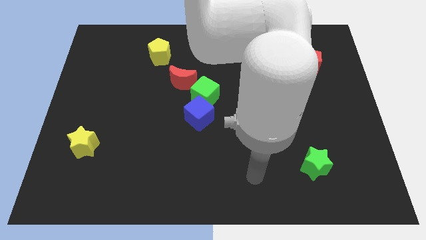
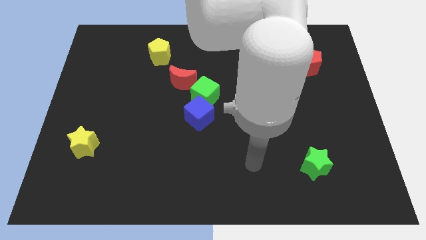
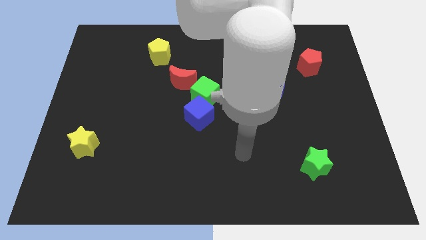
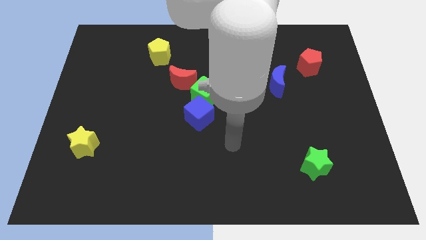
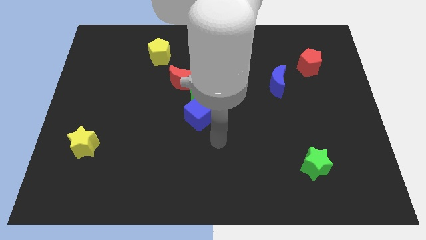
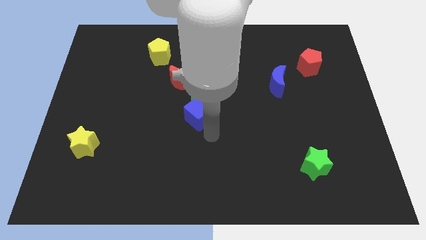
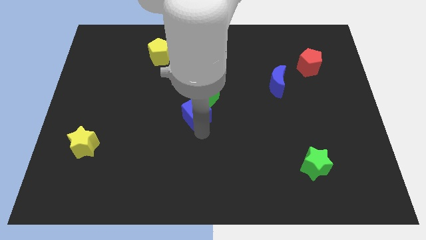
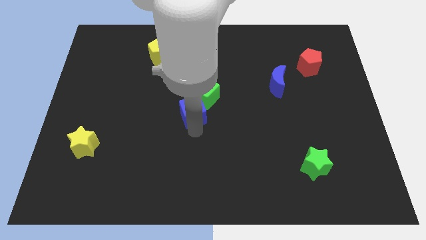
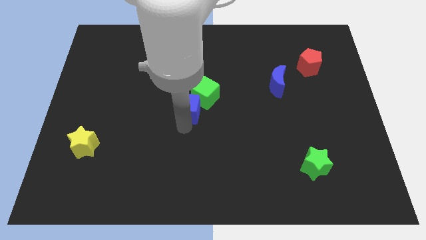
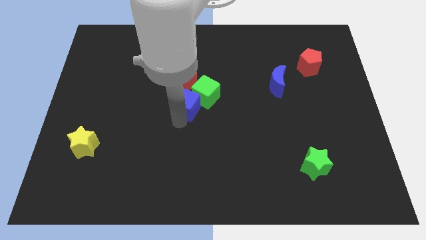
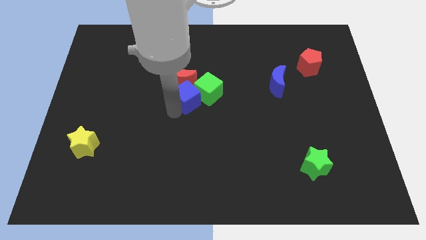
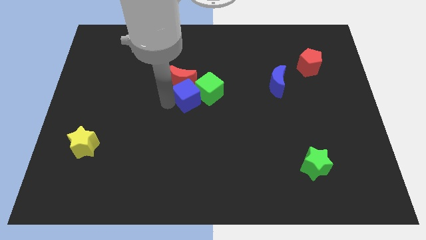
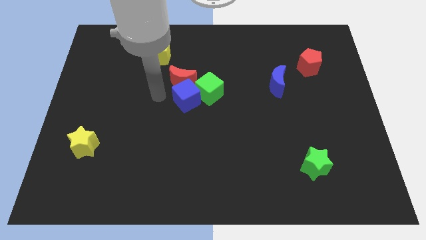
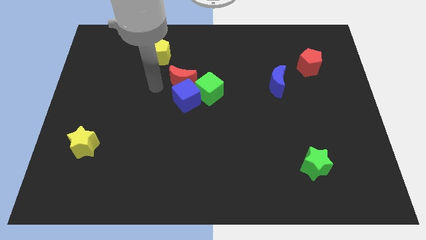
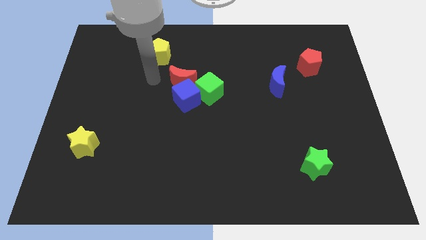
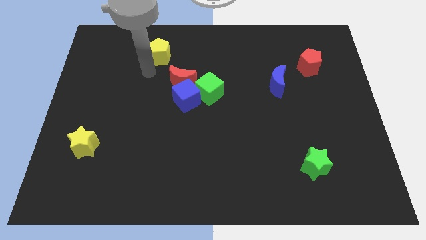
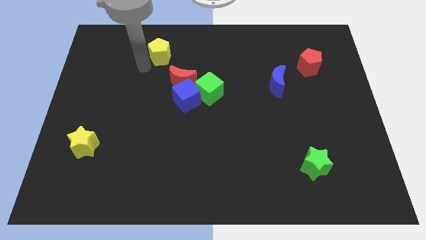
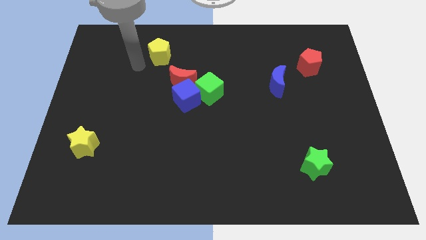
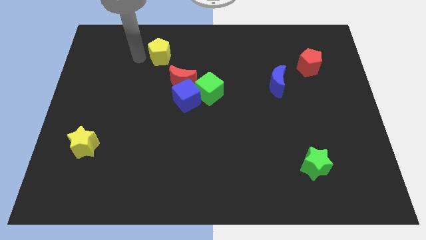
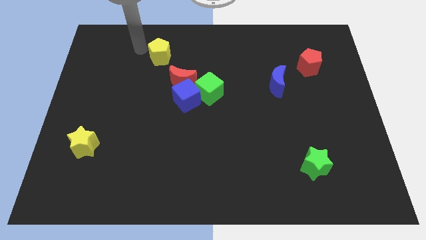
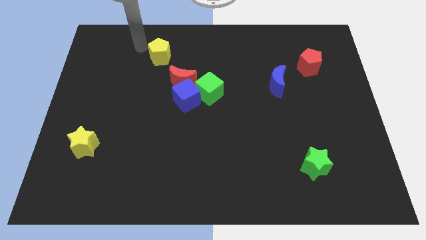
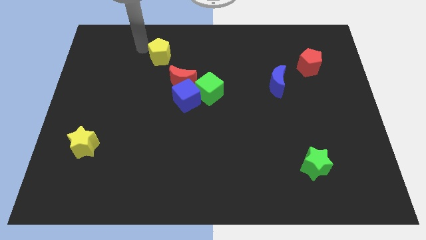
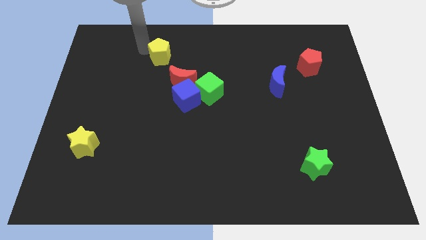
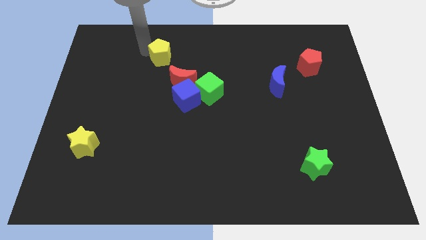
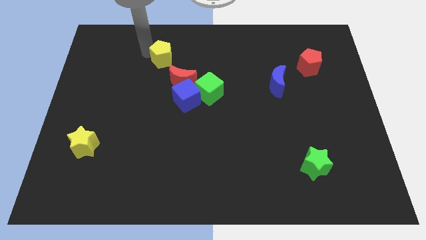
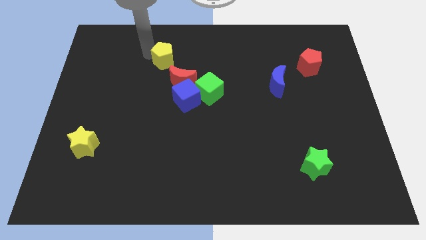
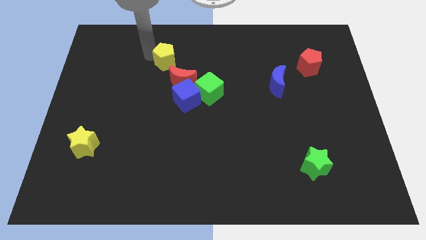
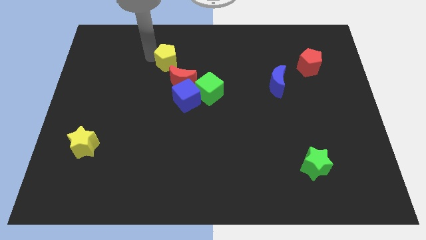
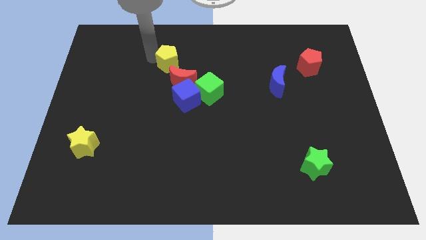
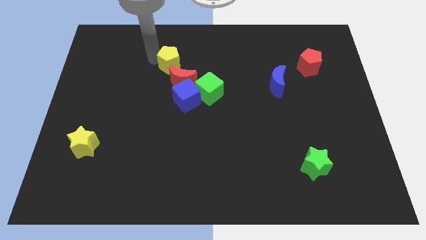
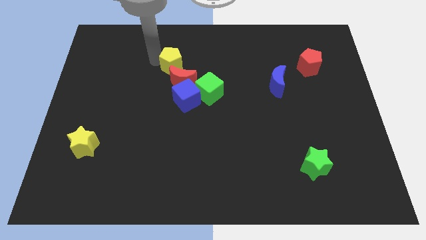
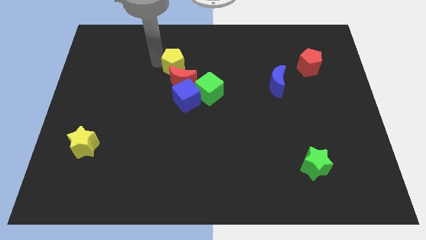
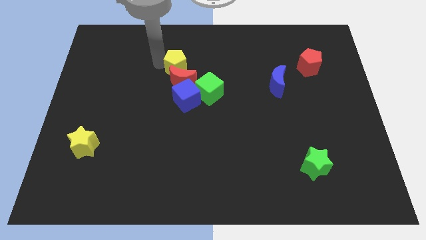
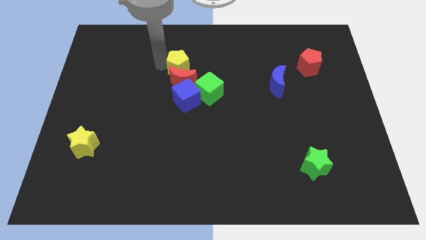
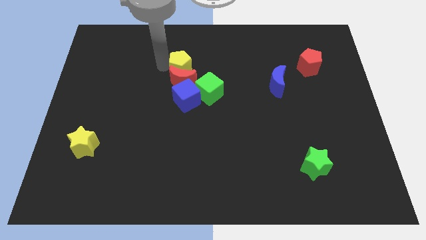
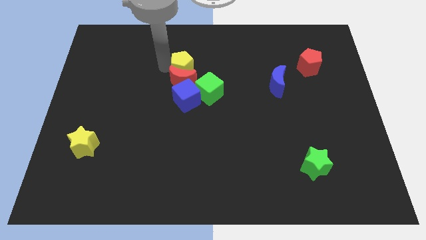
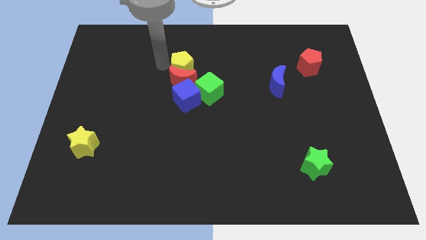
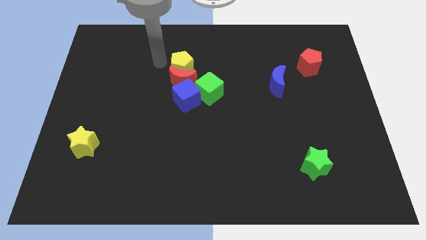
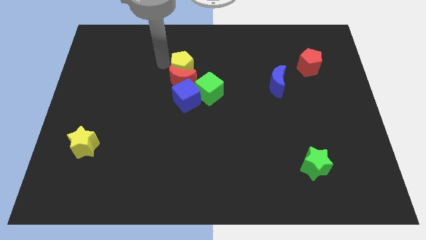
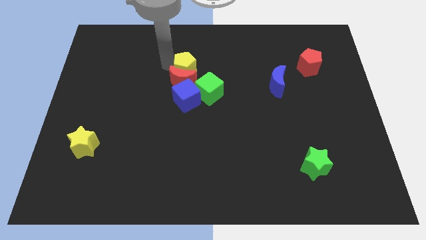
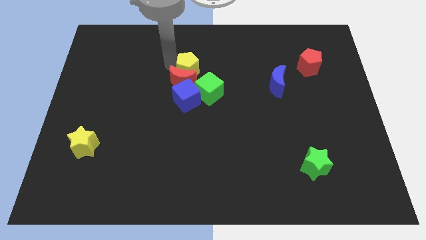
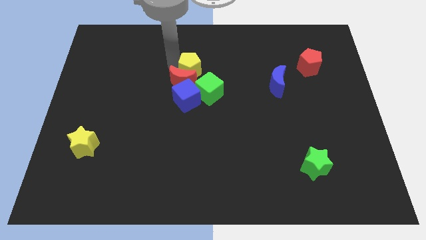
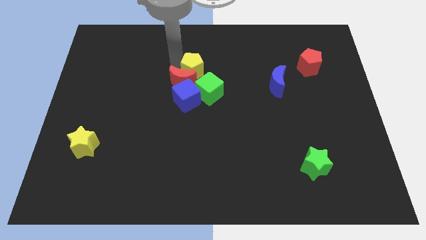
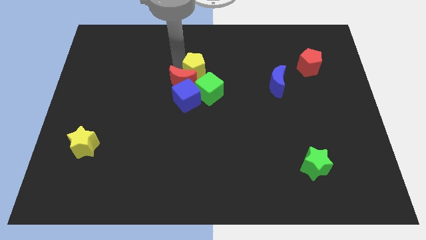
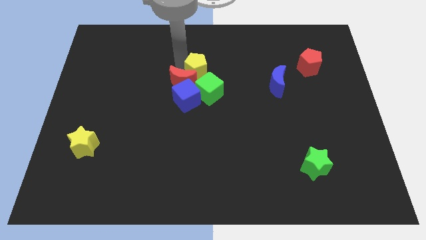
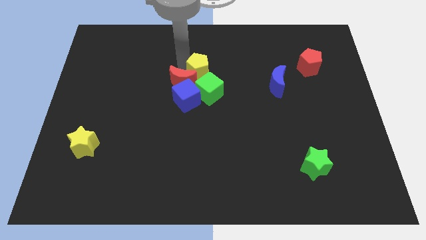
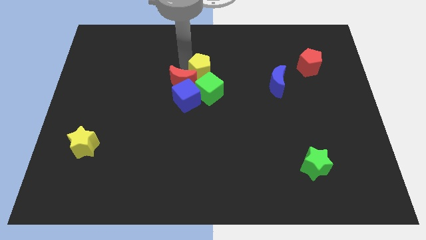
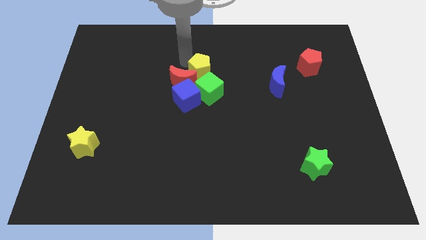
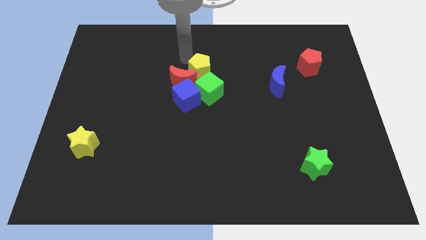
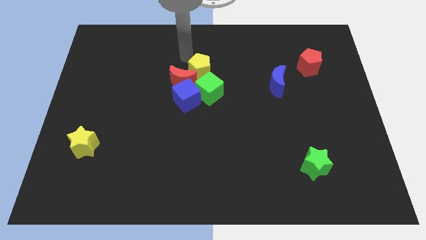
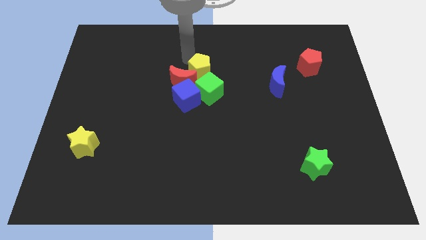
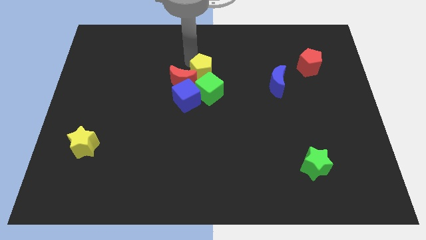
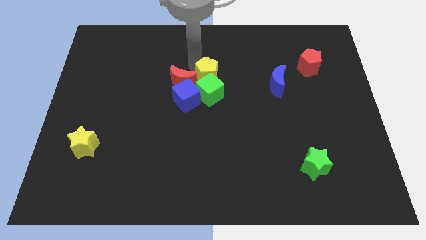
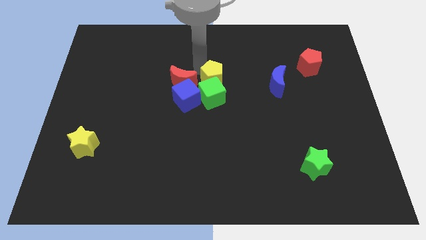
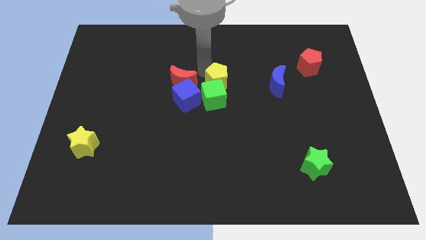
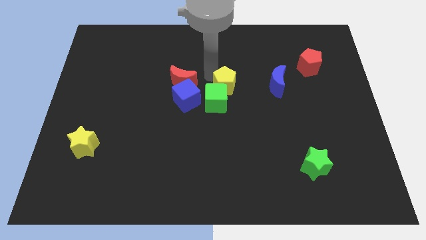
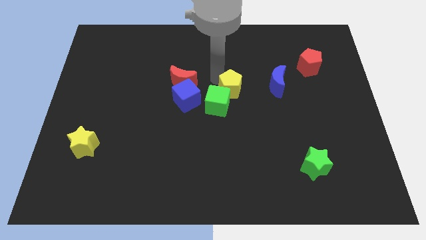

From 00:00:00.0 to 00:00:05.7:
slide the yellow pentagon downwards and right diagonally

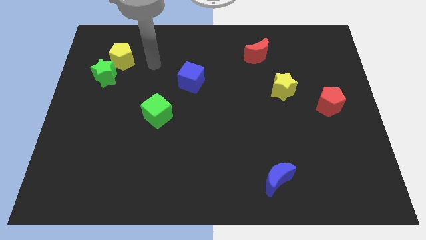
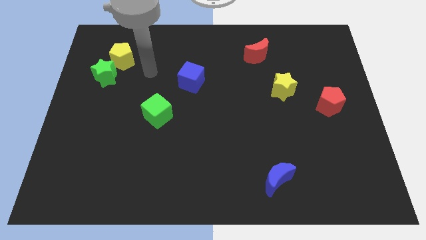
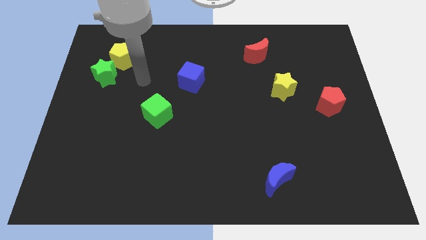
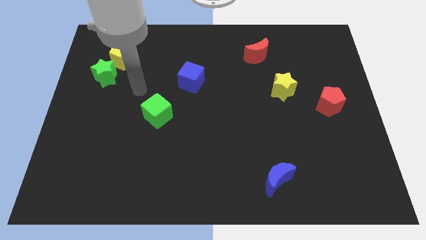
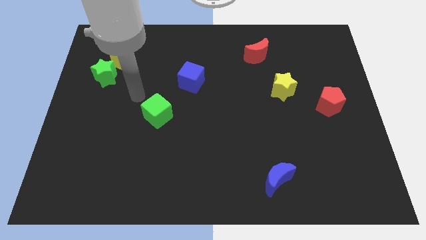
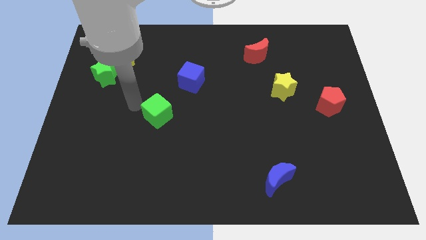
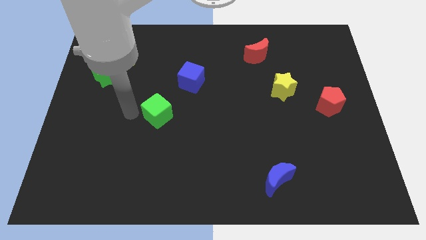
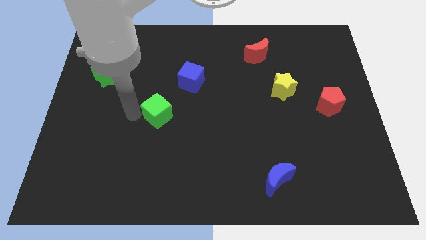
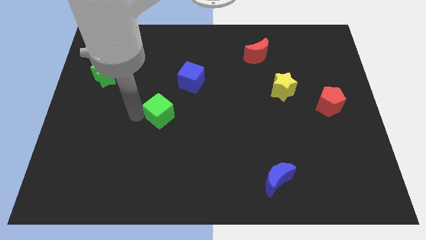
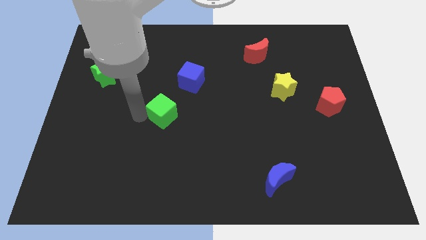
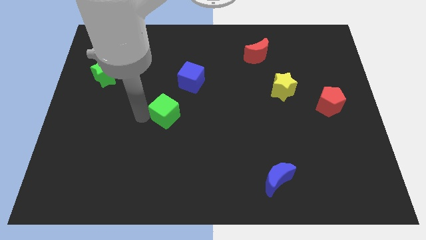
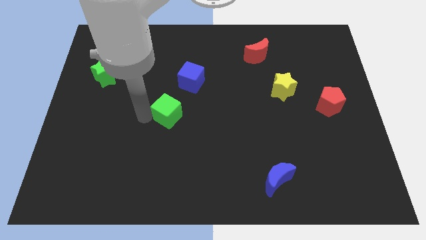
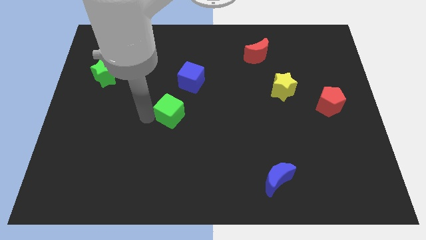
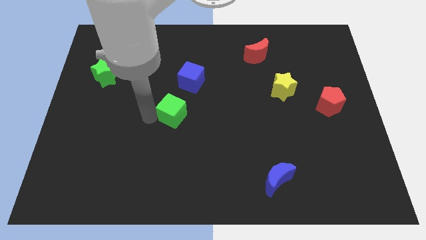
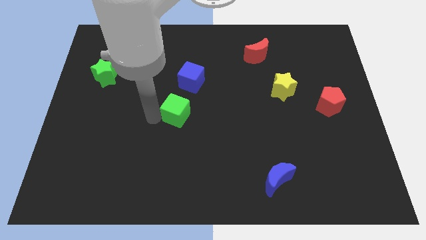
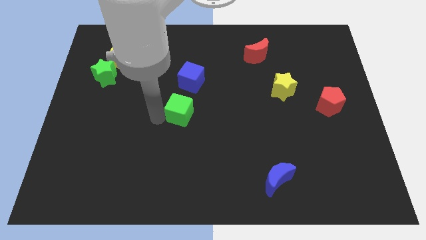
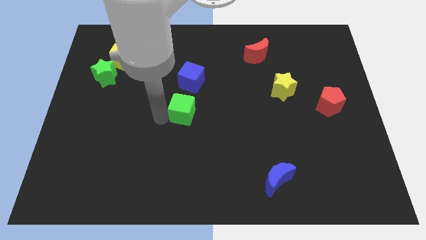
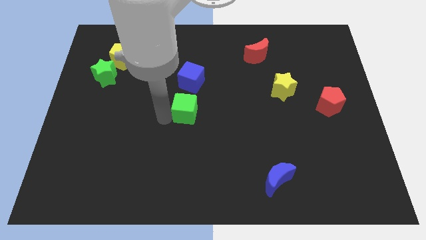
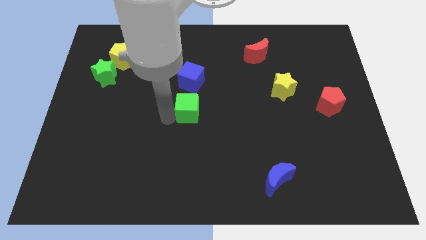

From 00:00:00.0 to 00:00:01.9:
move the green cube a bit to the right
